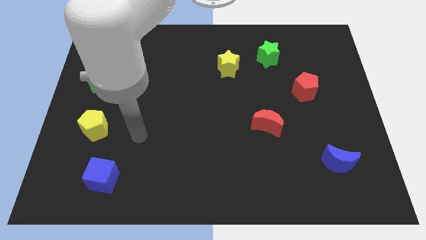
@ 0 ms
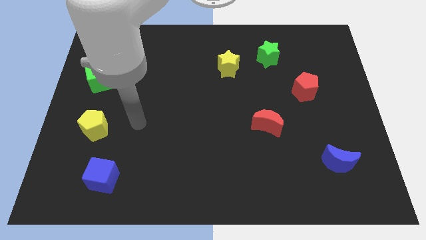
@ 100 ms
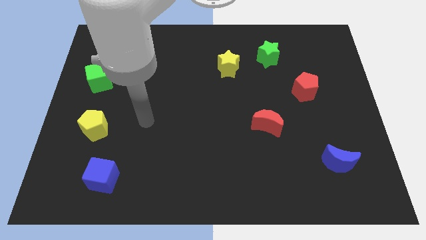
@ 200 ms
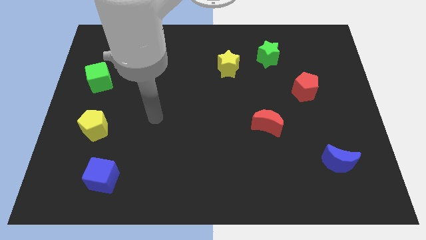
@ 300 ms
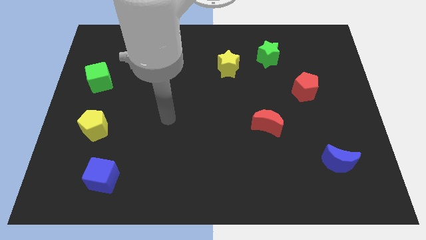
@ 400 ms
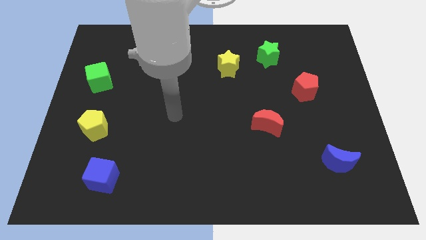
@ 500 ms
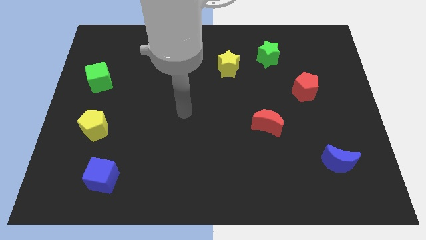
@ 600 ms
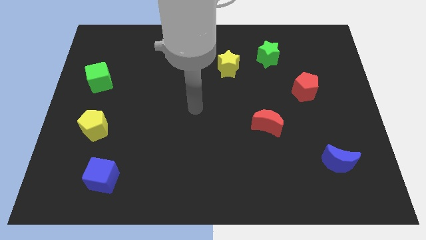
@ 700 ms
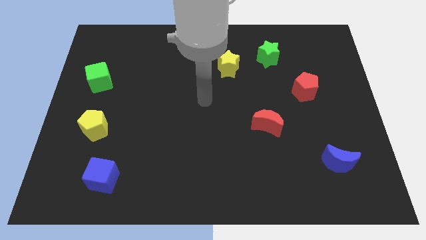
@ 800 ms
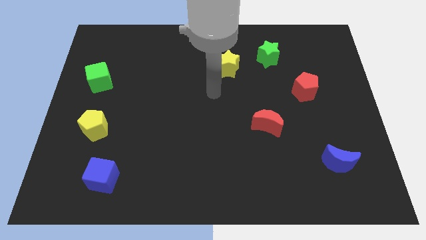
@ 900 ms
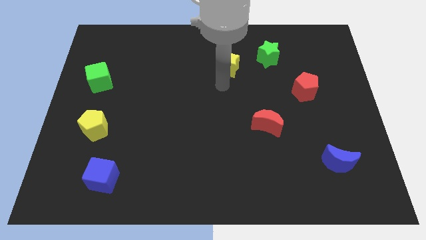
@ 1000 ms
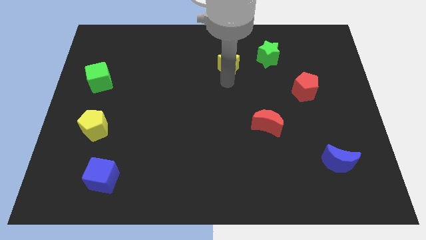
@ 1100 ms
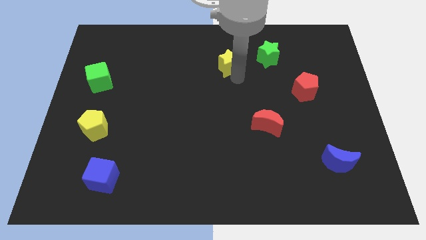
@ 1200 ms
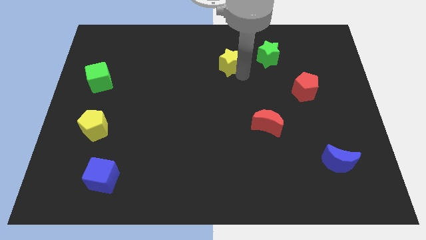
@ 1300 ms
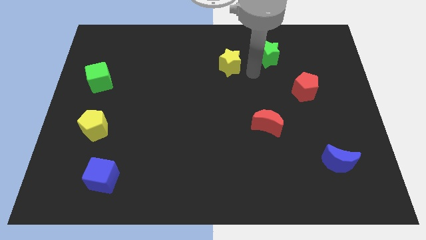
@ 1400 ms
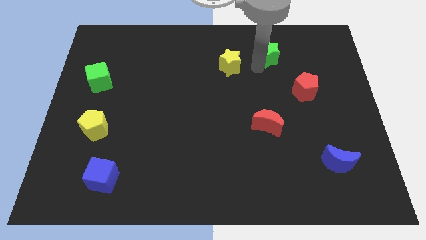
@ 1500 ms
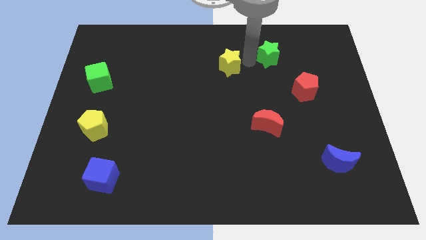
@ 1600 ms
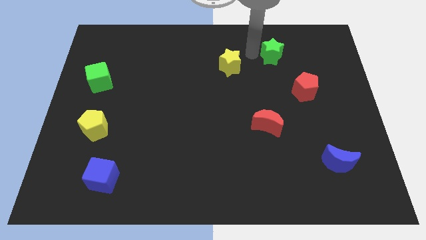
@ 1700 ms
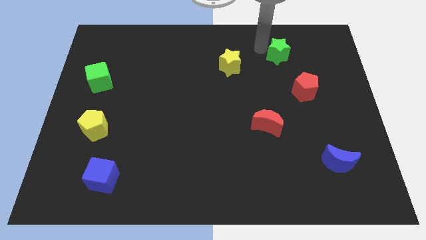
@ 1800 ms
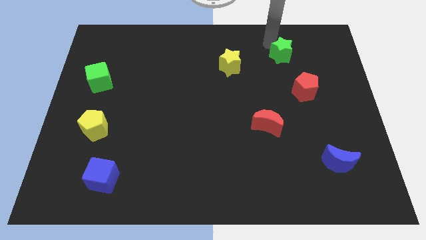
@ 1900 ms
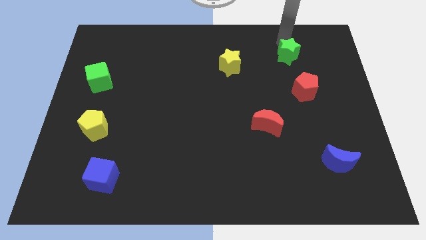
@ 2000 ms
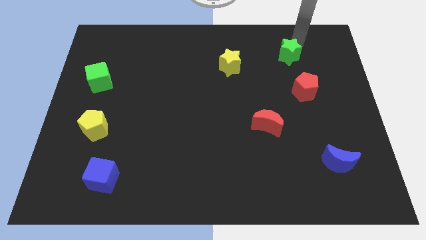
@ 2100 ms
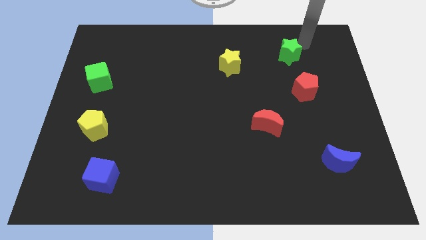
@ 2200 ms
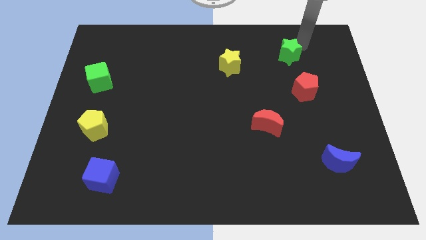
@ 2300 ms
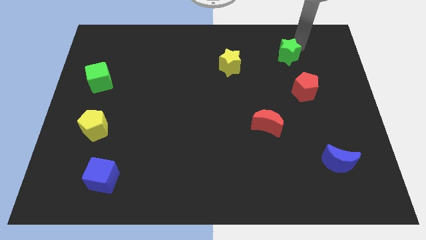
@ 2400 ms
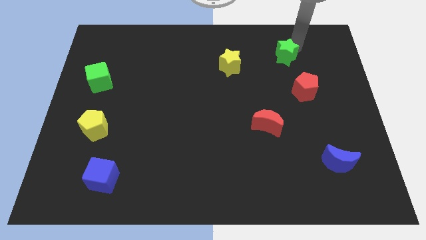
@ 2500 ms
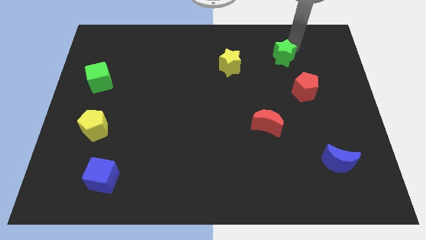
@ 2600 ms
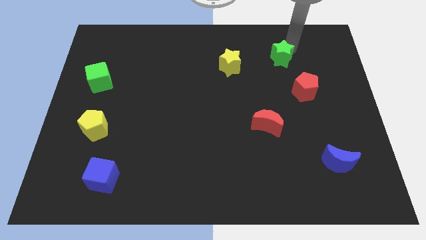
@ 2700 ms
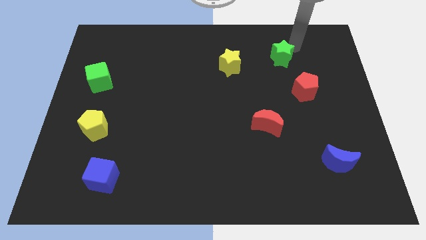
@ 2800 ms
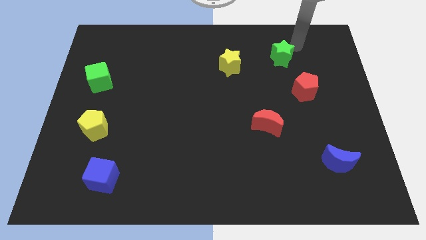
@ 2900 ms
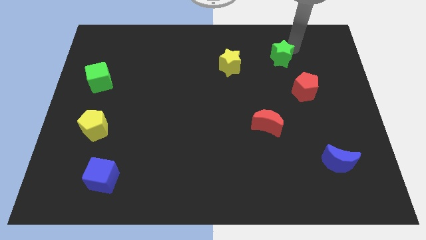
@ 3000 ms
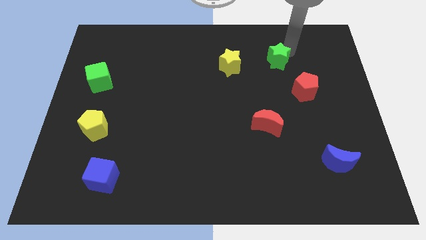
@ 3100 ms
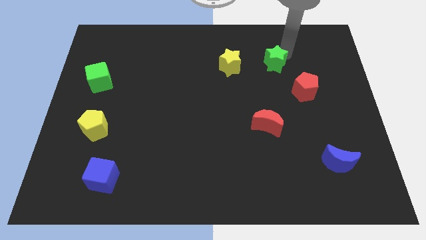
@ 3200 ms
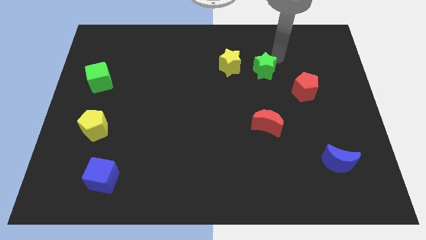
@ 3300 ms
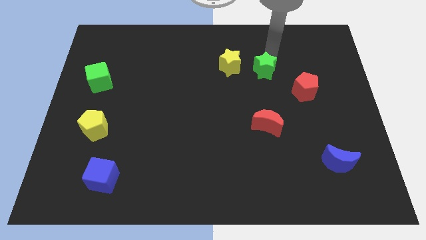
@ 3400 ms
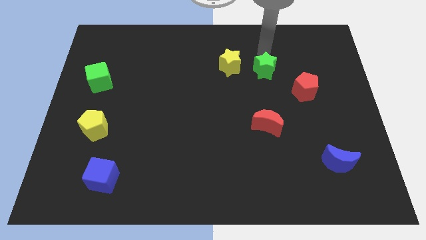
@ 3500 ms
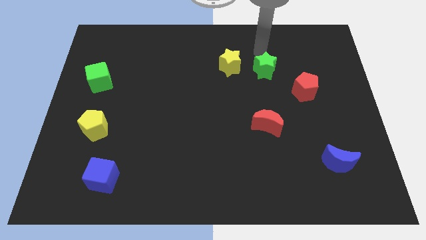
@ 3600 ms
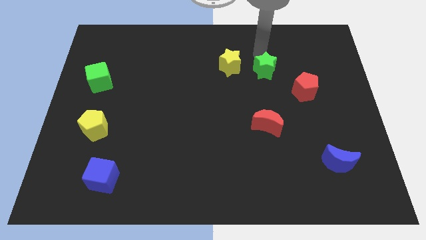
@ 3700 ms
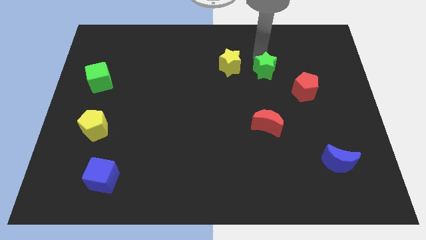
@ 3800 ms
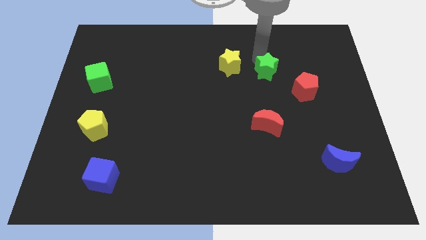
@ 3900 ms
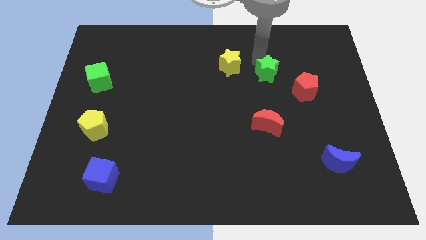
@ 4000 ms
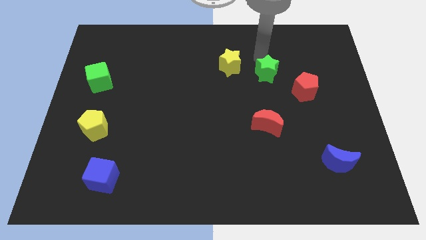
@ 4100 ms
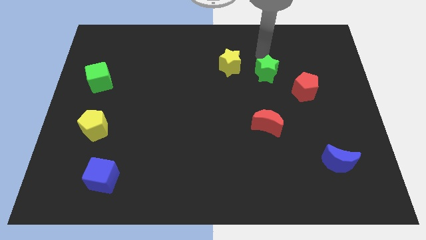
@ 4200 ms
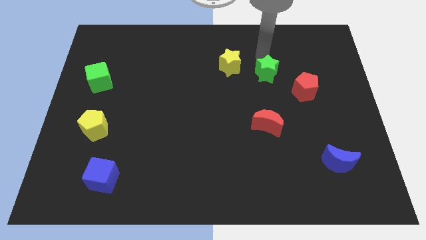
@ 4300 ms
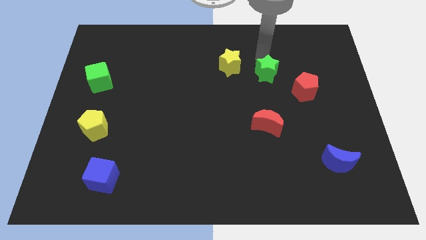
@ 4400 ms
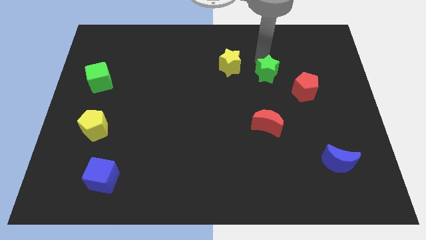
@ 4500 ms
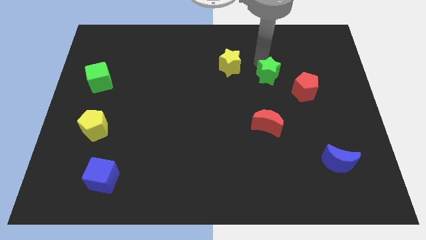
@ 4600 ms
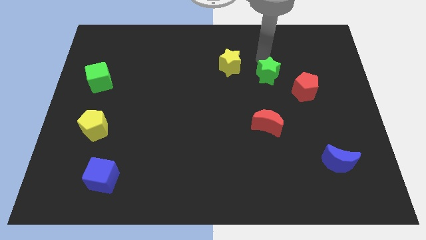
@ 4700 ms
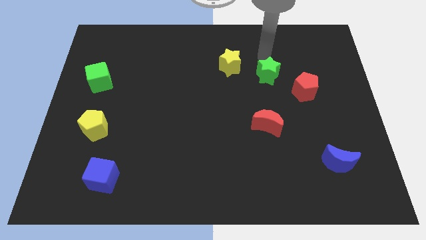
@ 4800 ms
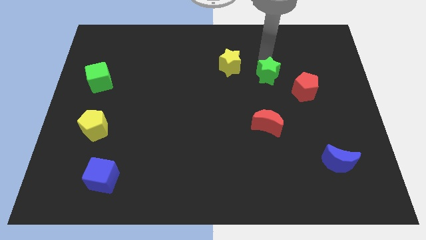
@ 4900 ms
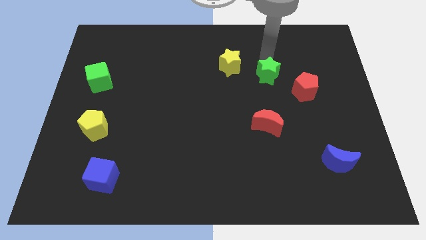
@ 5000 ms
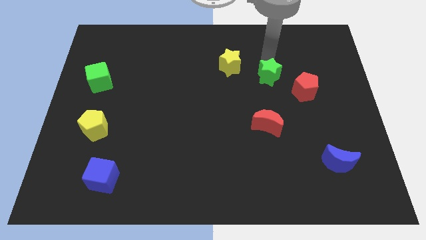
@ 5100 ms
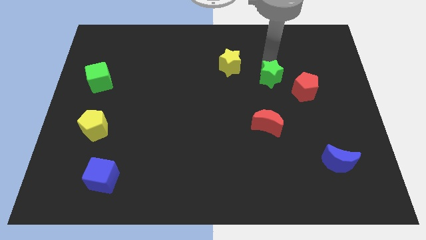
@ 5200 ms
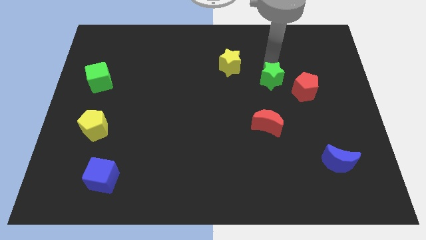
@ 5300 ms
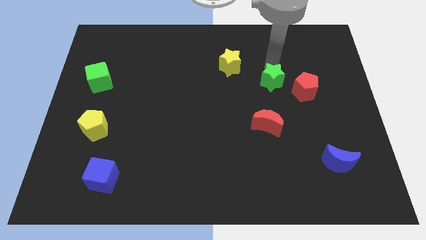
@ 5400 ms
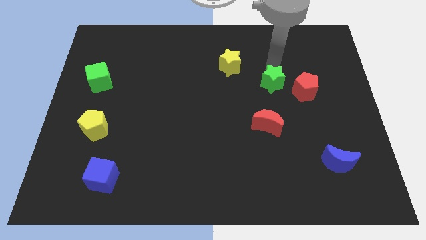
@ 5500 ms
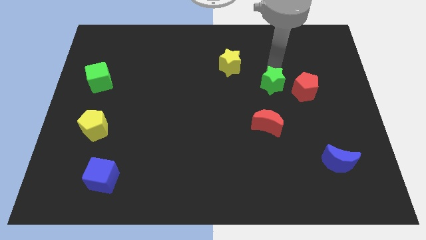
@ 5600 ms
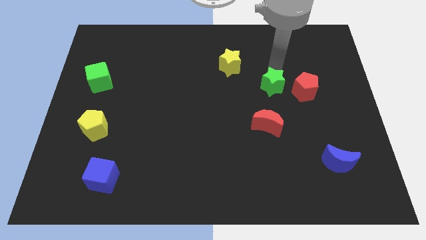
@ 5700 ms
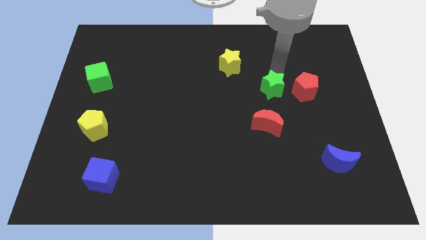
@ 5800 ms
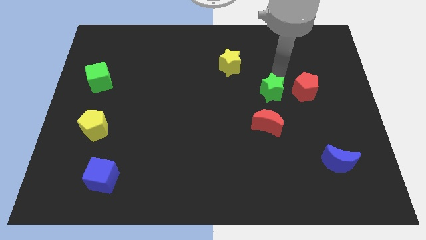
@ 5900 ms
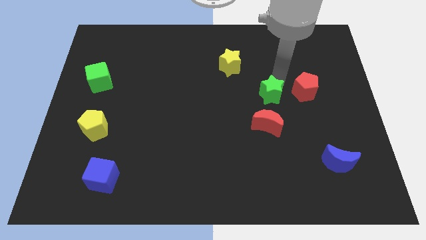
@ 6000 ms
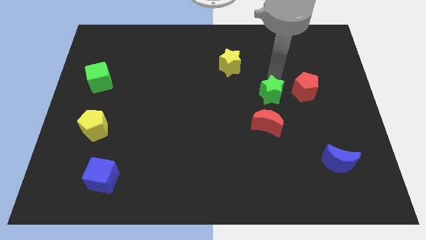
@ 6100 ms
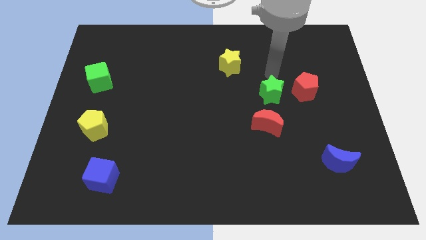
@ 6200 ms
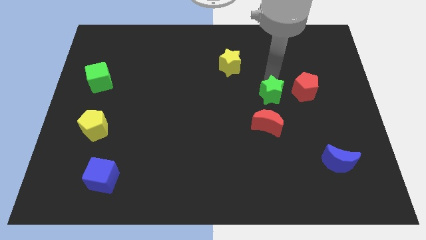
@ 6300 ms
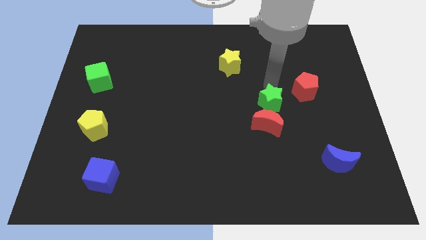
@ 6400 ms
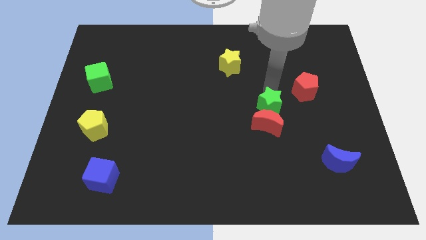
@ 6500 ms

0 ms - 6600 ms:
put the green star to the red moon

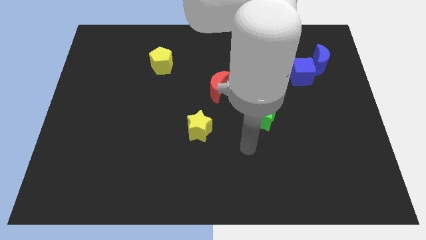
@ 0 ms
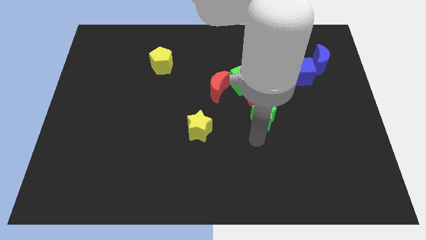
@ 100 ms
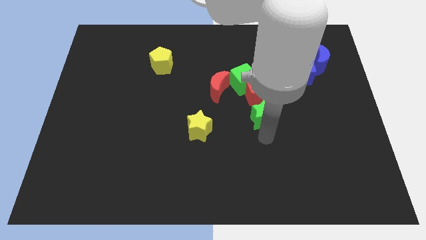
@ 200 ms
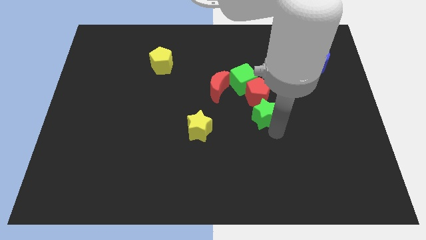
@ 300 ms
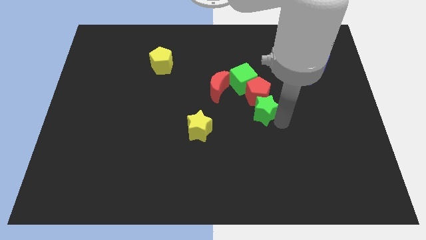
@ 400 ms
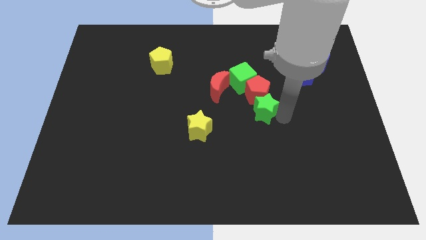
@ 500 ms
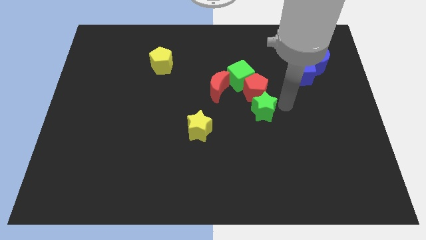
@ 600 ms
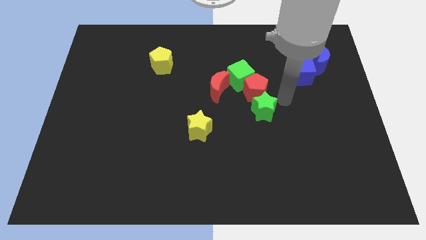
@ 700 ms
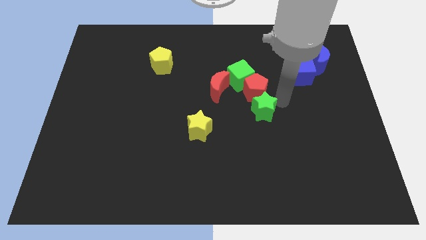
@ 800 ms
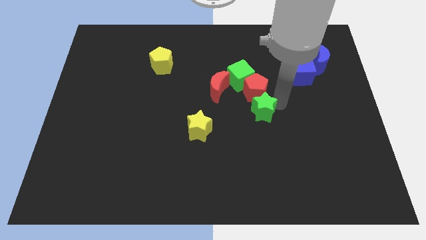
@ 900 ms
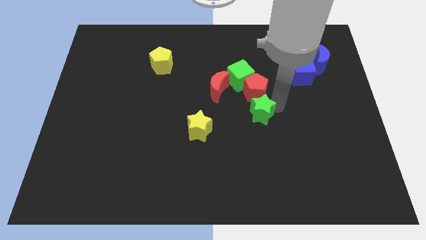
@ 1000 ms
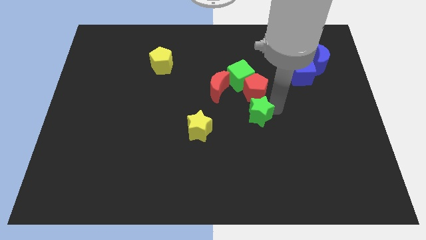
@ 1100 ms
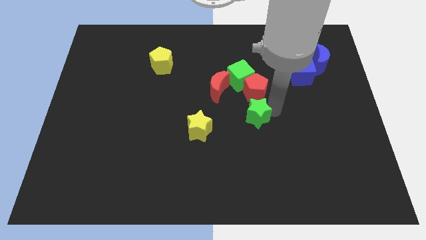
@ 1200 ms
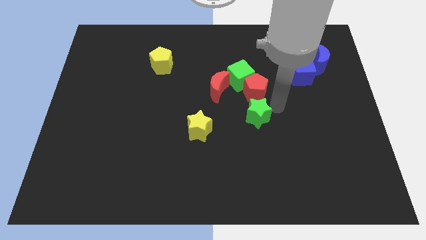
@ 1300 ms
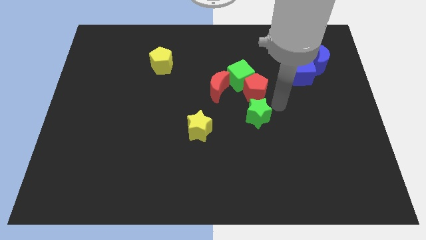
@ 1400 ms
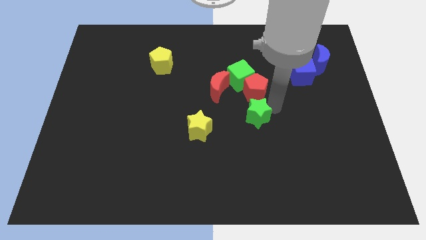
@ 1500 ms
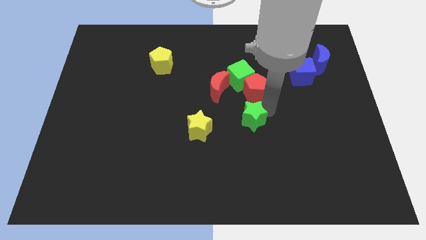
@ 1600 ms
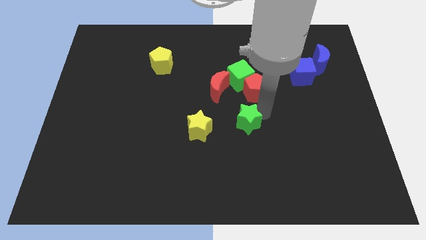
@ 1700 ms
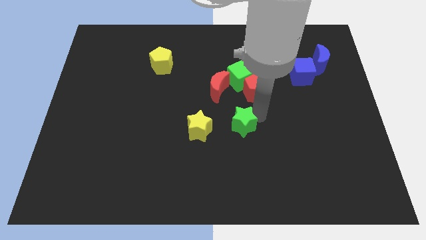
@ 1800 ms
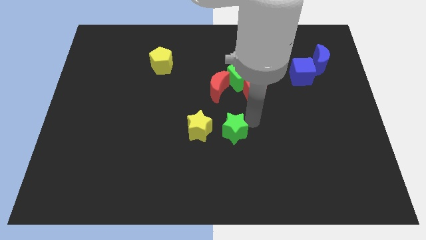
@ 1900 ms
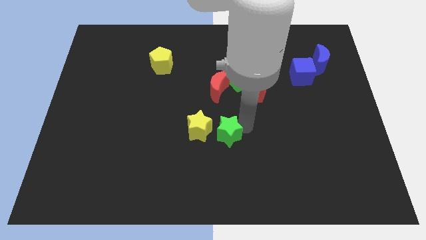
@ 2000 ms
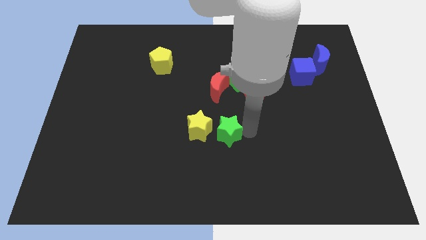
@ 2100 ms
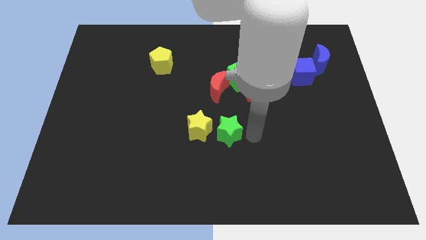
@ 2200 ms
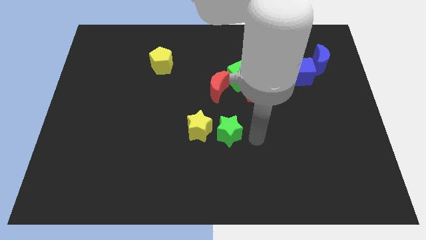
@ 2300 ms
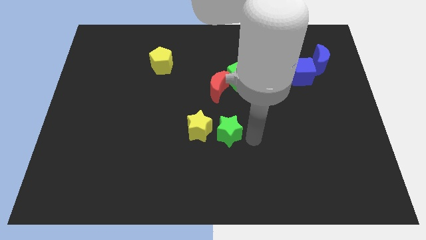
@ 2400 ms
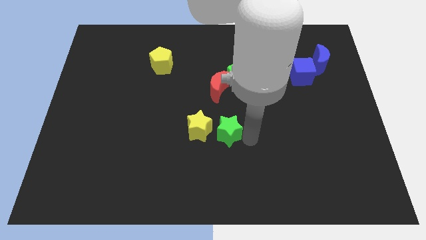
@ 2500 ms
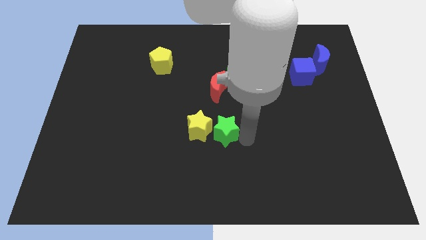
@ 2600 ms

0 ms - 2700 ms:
put the green star close to the yellow star
